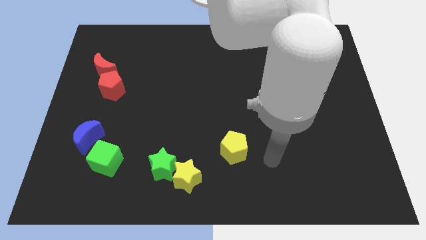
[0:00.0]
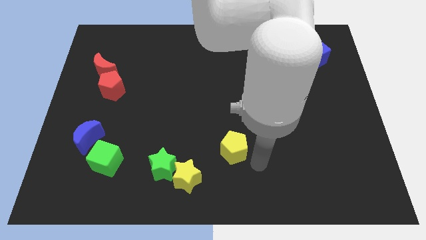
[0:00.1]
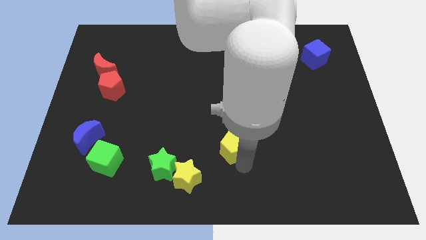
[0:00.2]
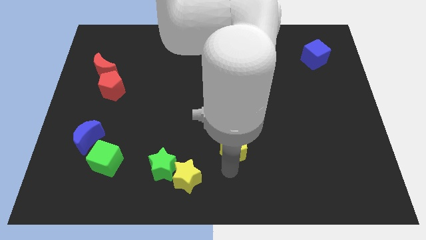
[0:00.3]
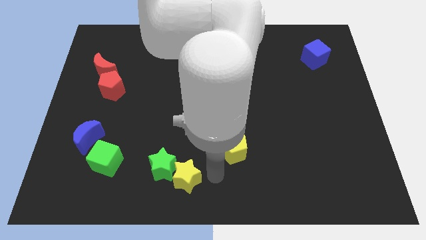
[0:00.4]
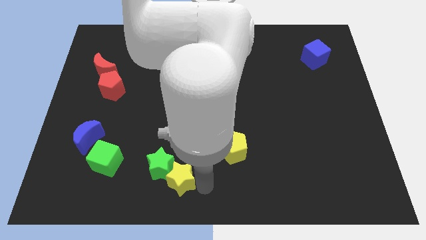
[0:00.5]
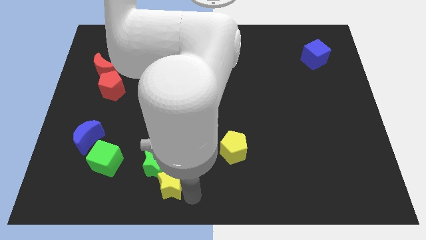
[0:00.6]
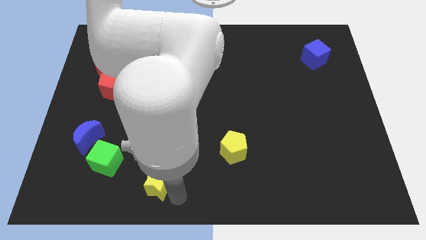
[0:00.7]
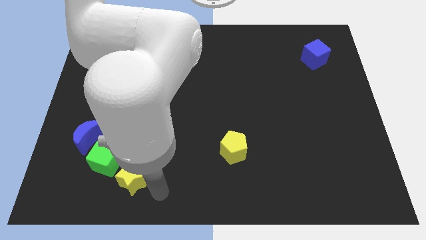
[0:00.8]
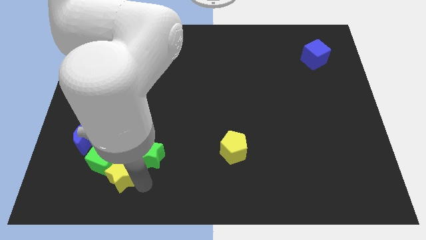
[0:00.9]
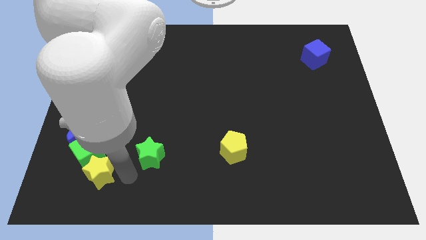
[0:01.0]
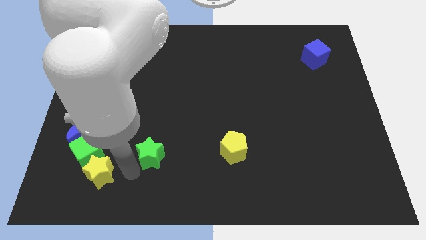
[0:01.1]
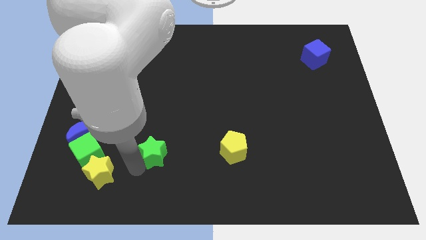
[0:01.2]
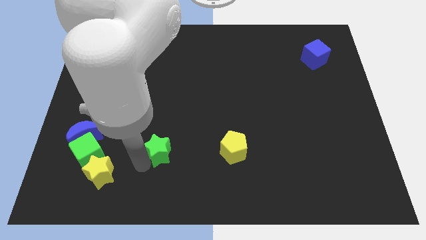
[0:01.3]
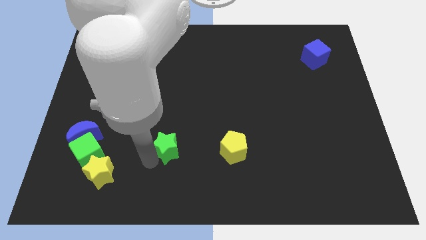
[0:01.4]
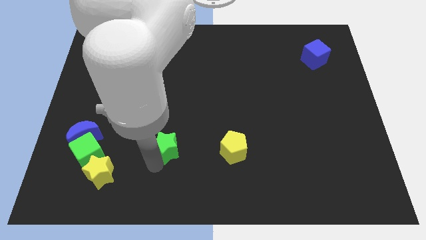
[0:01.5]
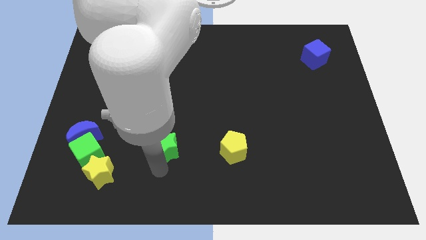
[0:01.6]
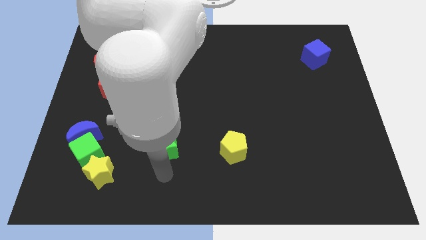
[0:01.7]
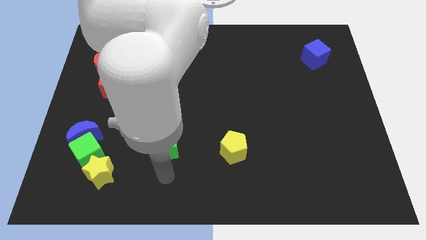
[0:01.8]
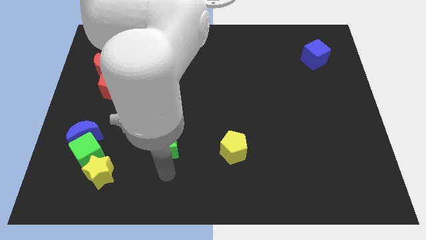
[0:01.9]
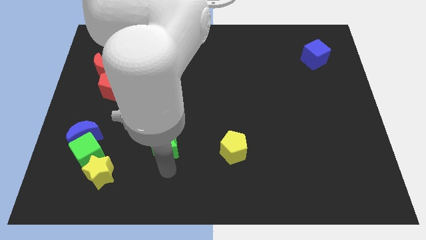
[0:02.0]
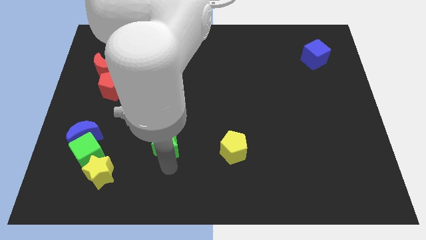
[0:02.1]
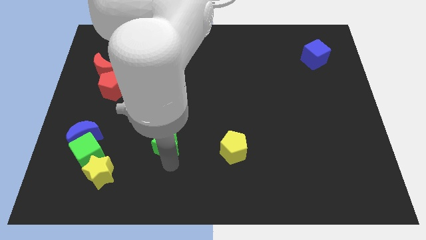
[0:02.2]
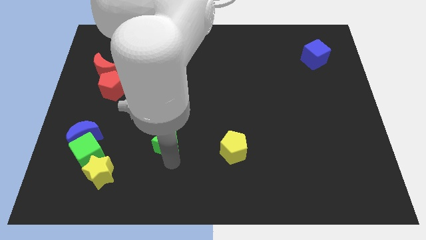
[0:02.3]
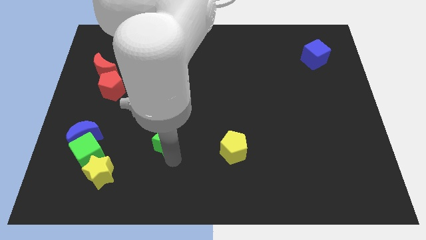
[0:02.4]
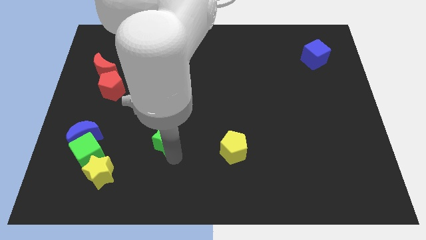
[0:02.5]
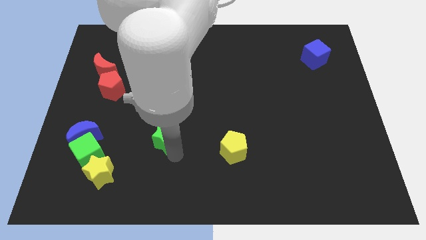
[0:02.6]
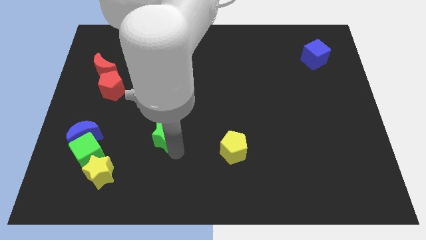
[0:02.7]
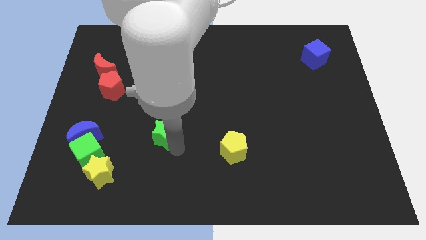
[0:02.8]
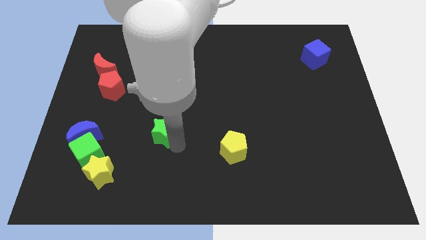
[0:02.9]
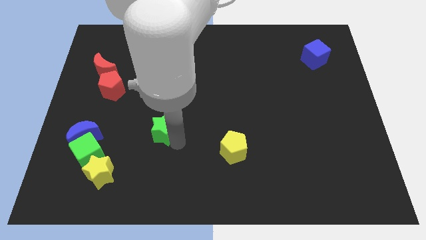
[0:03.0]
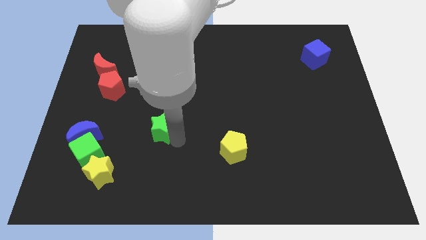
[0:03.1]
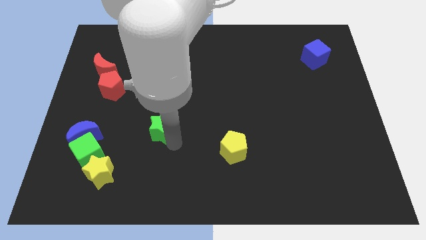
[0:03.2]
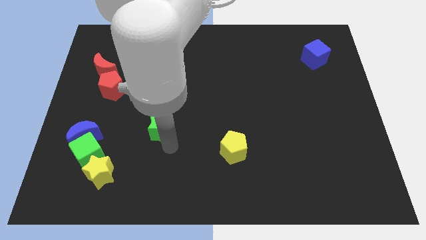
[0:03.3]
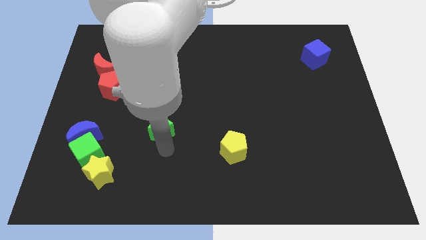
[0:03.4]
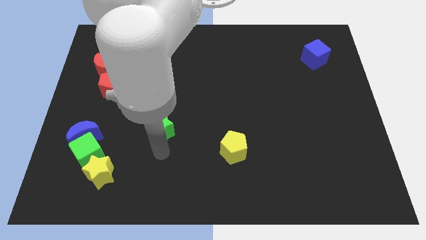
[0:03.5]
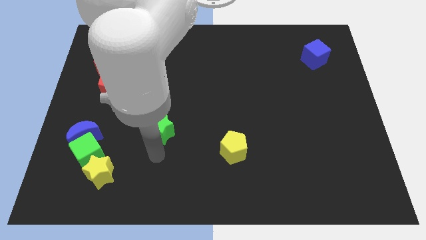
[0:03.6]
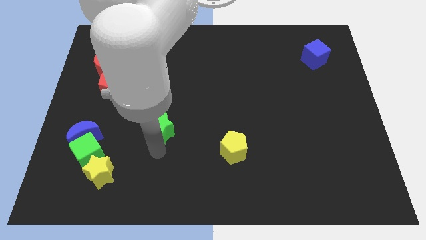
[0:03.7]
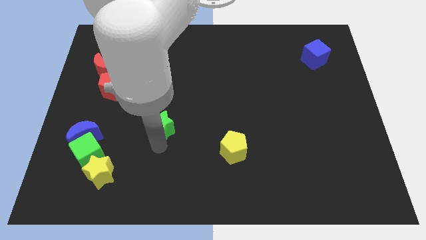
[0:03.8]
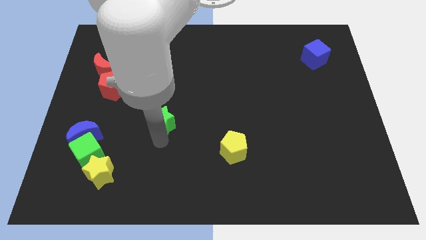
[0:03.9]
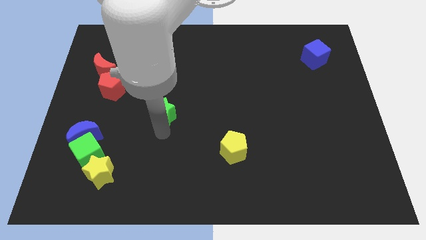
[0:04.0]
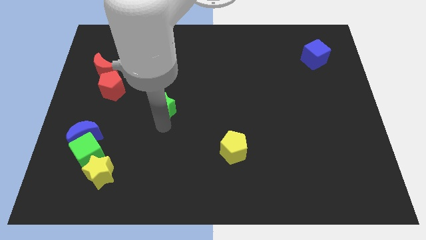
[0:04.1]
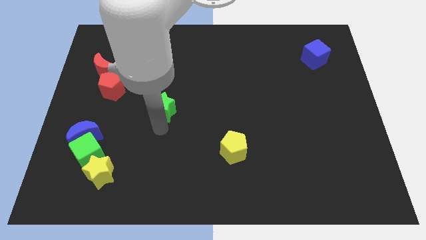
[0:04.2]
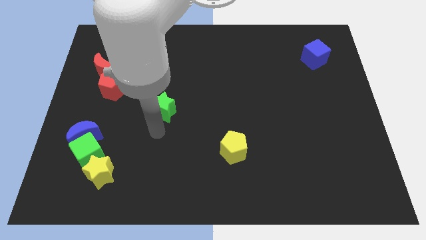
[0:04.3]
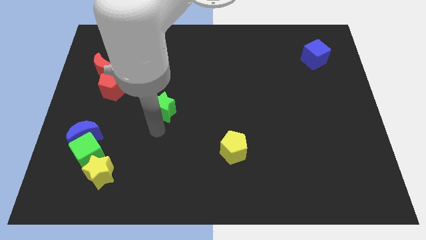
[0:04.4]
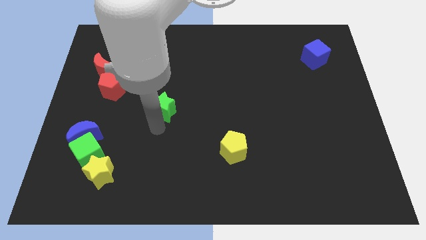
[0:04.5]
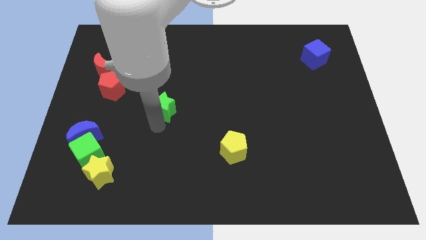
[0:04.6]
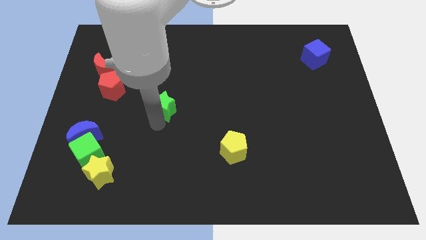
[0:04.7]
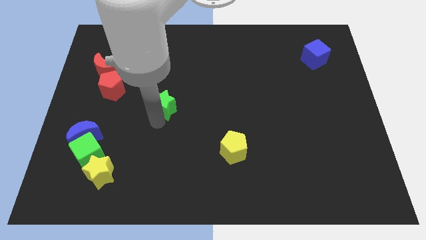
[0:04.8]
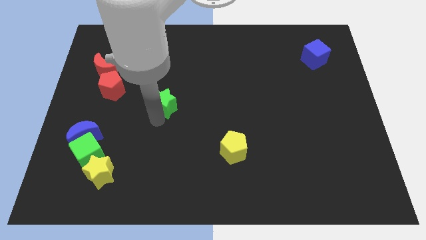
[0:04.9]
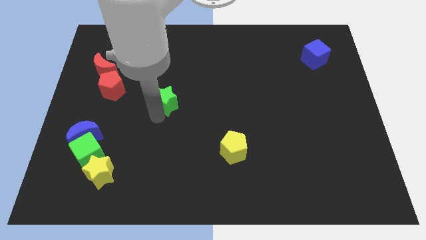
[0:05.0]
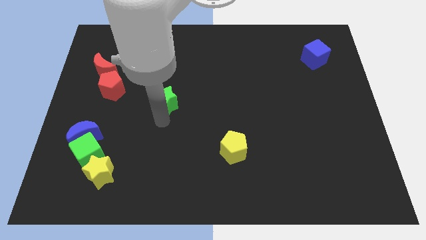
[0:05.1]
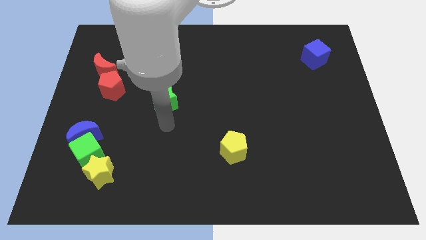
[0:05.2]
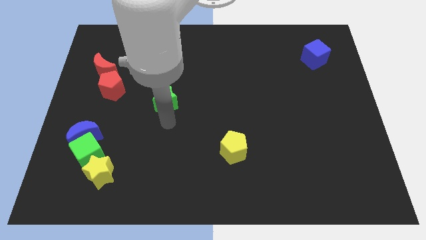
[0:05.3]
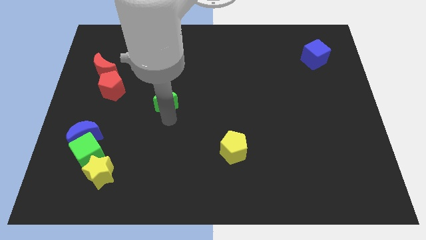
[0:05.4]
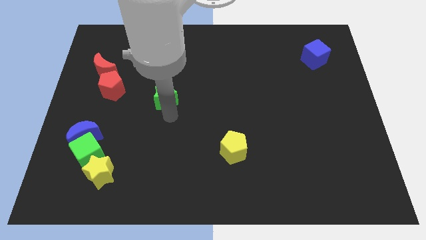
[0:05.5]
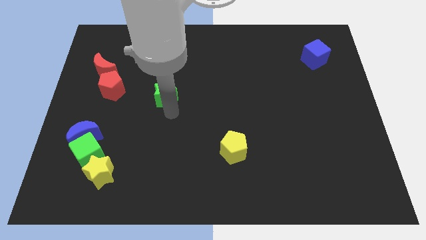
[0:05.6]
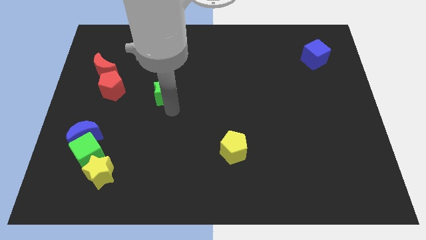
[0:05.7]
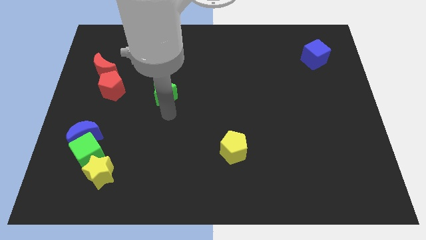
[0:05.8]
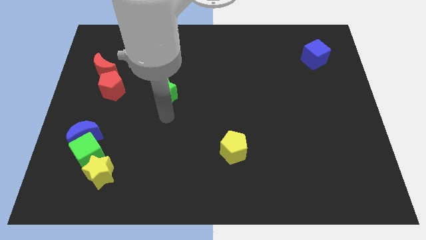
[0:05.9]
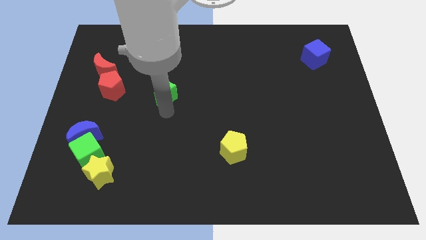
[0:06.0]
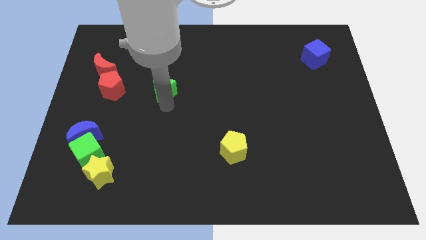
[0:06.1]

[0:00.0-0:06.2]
push the green star upwards

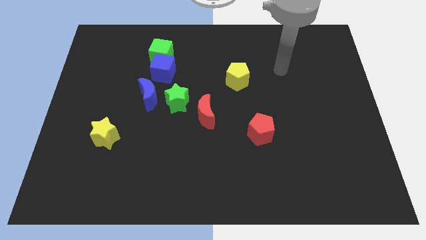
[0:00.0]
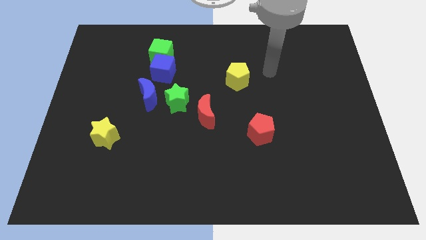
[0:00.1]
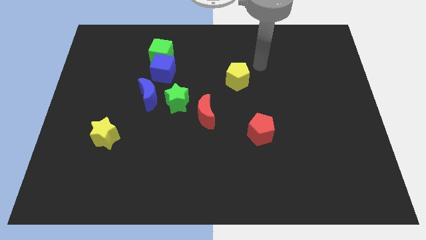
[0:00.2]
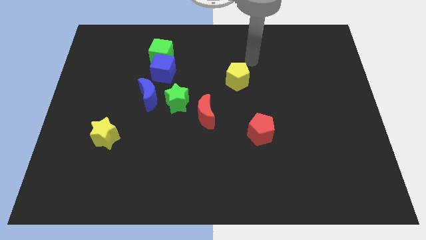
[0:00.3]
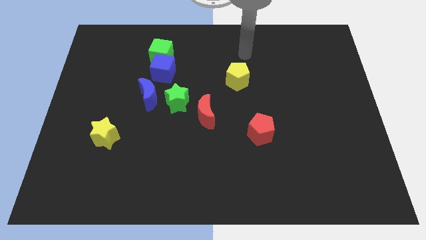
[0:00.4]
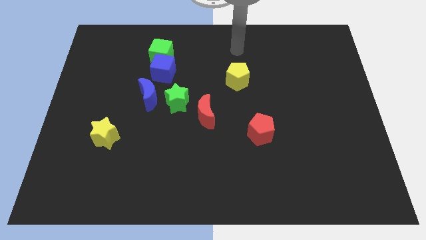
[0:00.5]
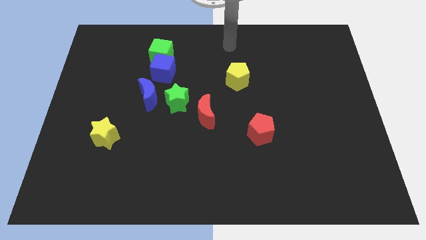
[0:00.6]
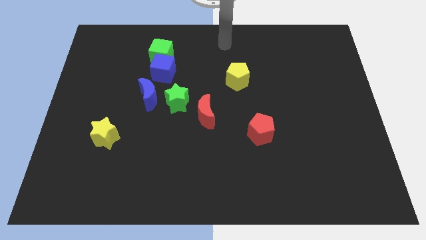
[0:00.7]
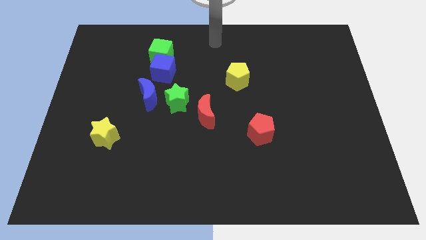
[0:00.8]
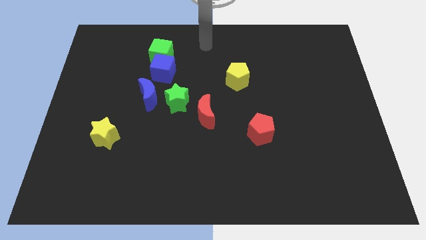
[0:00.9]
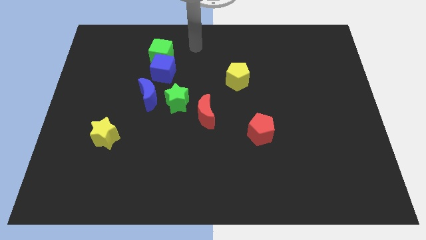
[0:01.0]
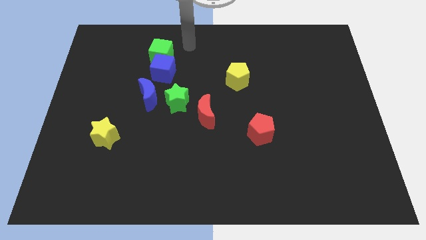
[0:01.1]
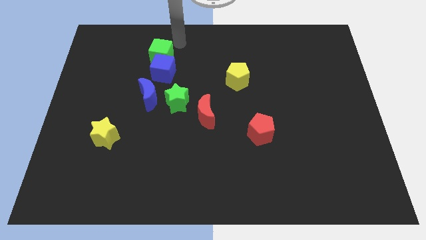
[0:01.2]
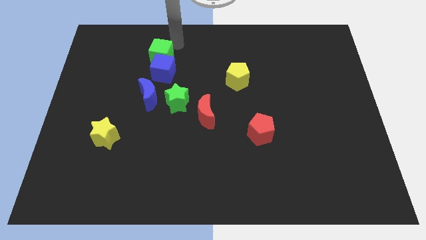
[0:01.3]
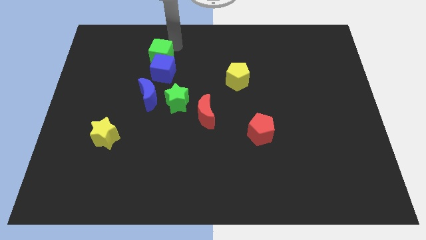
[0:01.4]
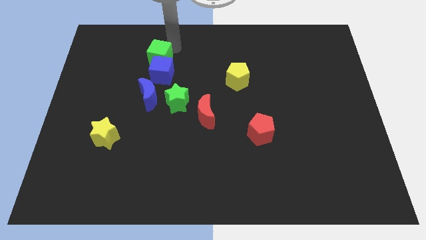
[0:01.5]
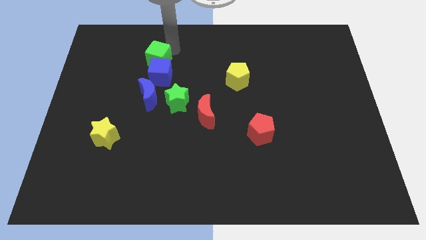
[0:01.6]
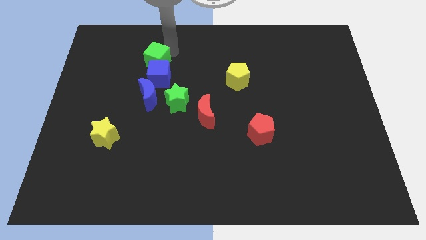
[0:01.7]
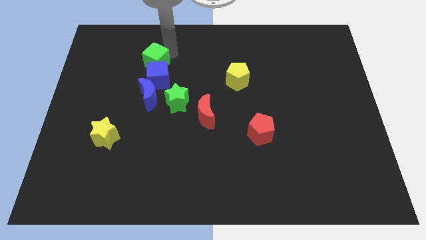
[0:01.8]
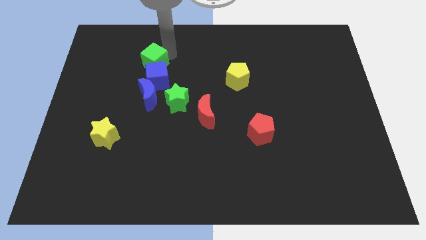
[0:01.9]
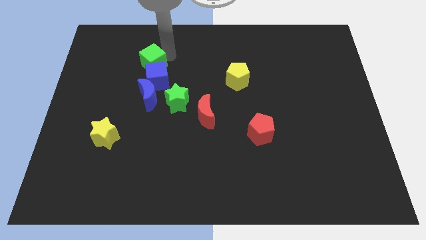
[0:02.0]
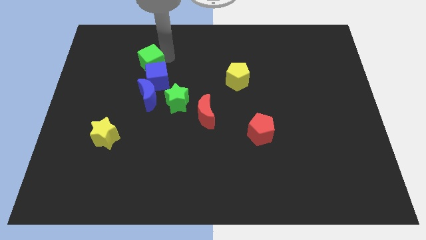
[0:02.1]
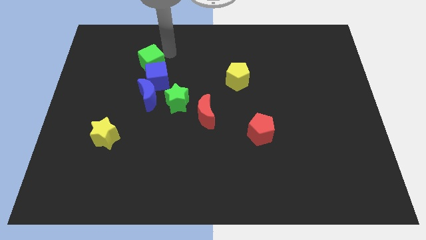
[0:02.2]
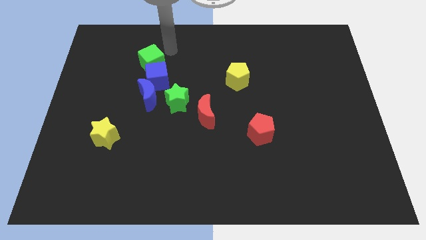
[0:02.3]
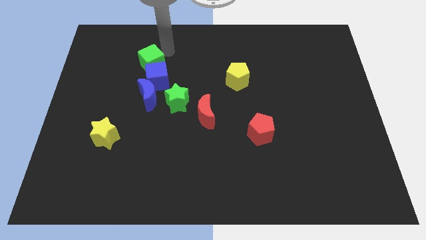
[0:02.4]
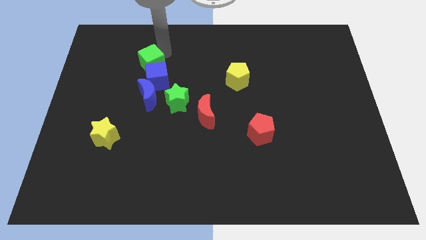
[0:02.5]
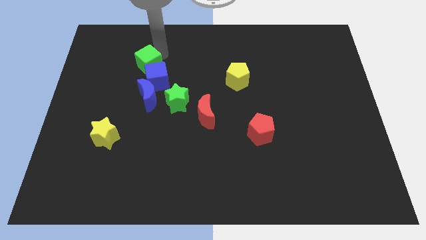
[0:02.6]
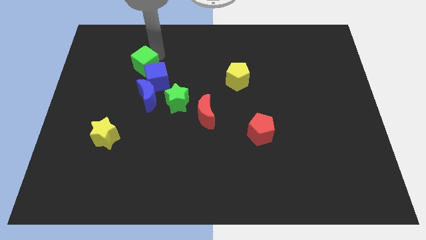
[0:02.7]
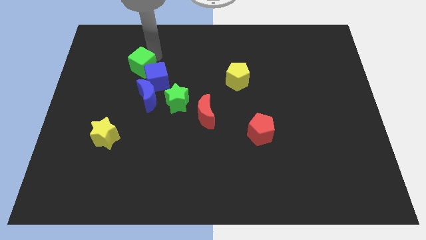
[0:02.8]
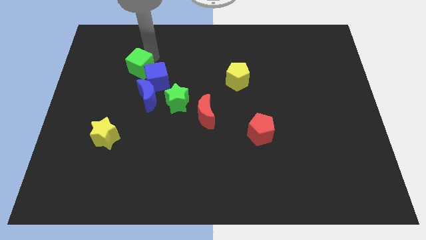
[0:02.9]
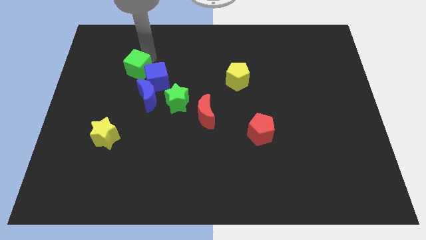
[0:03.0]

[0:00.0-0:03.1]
slide the green cube a little bit diagonally down and to the left
